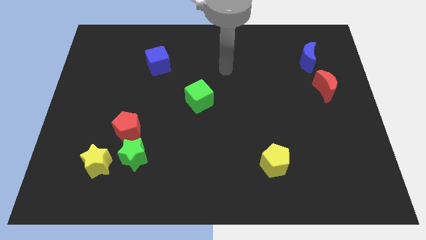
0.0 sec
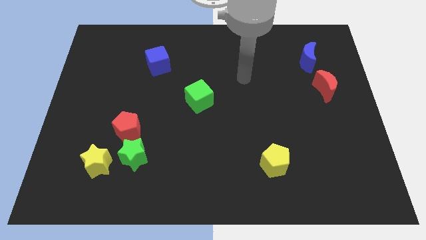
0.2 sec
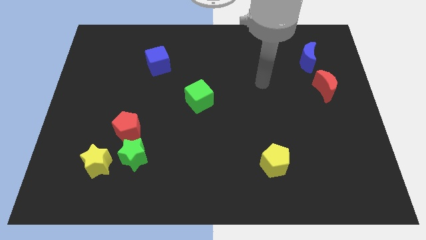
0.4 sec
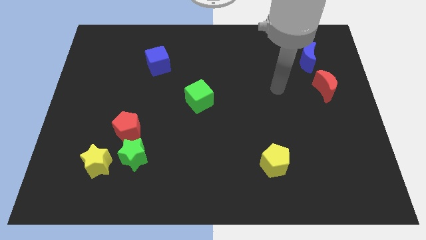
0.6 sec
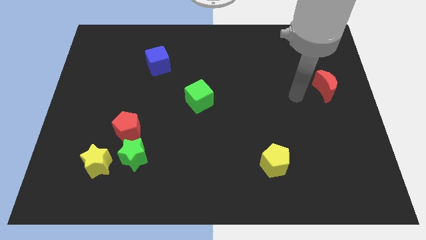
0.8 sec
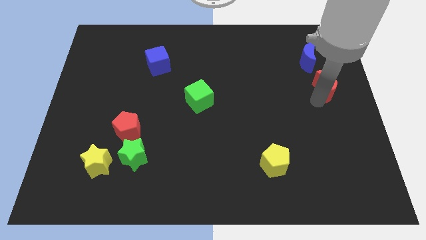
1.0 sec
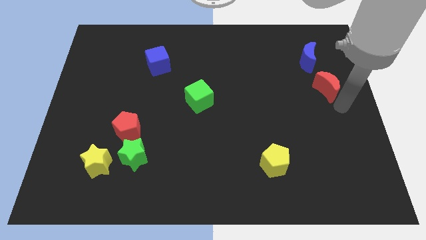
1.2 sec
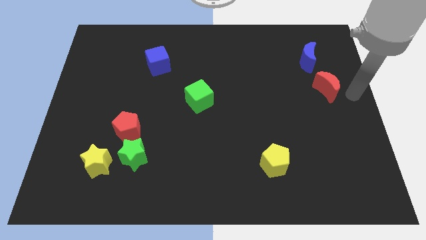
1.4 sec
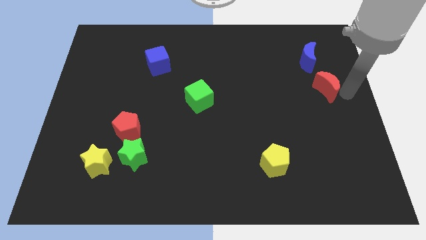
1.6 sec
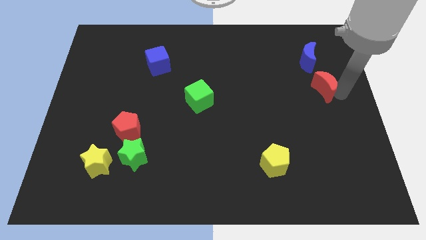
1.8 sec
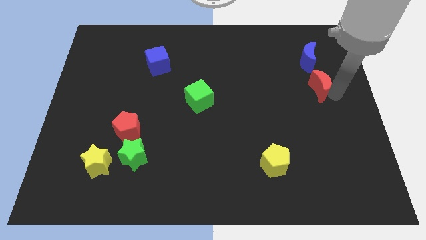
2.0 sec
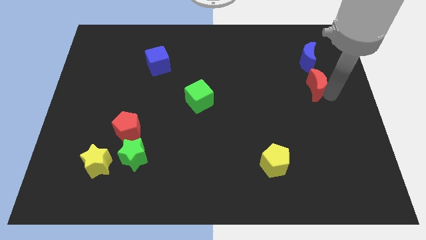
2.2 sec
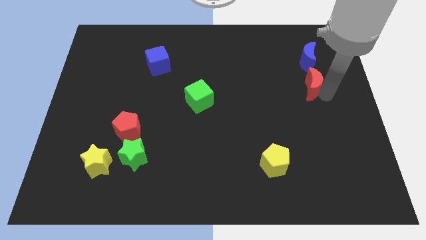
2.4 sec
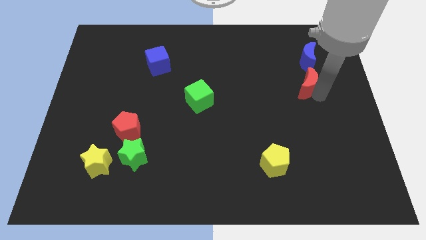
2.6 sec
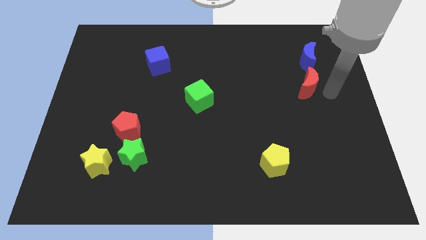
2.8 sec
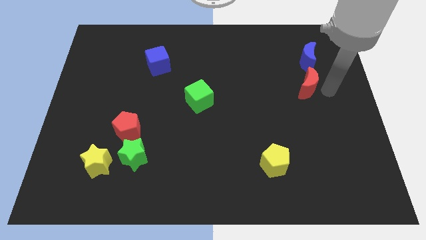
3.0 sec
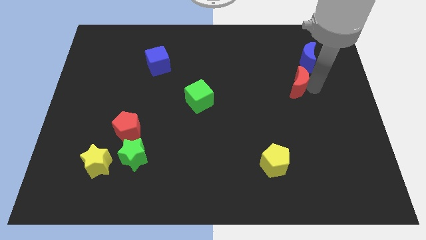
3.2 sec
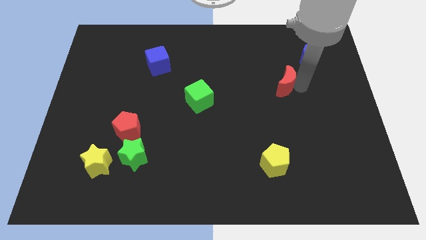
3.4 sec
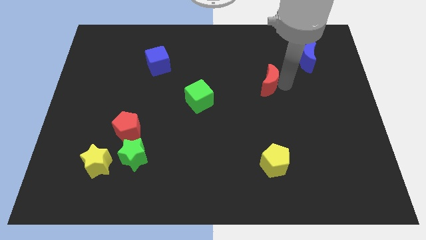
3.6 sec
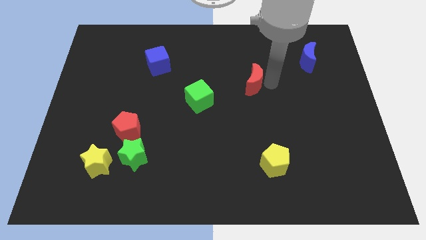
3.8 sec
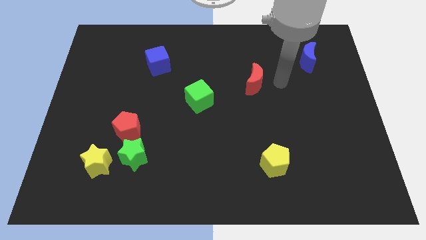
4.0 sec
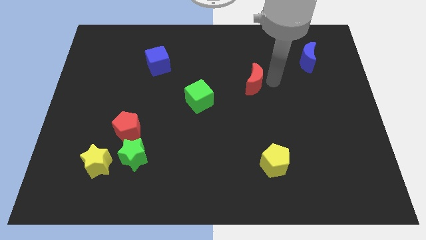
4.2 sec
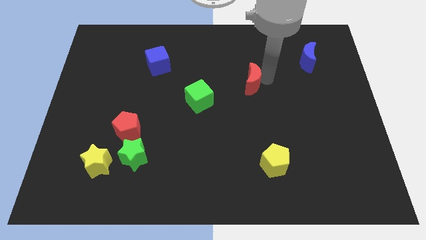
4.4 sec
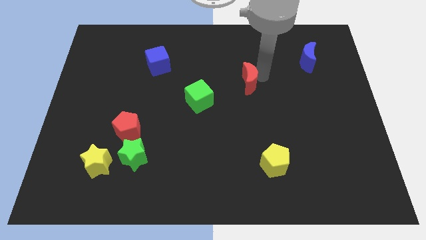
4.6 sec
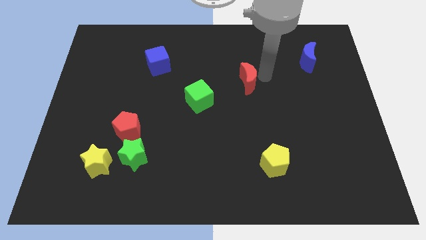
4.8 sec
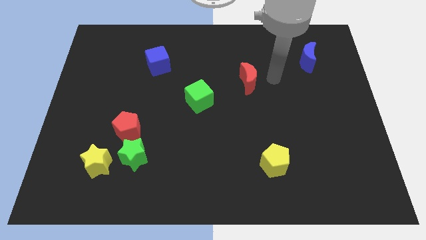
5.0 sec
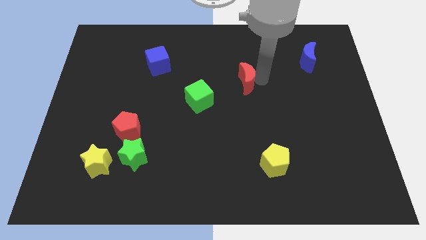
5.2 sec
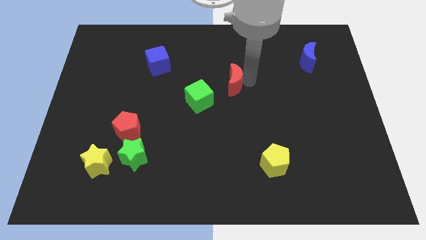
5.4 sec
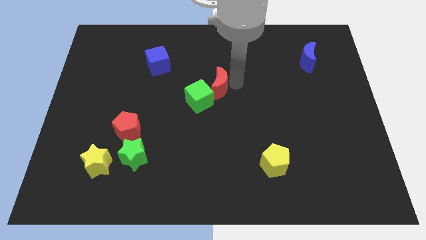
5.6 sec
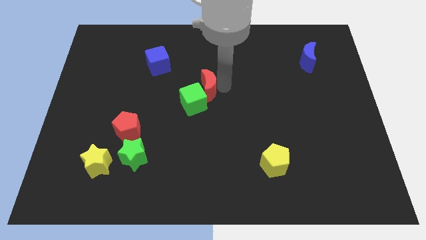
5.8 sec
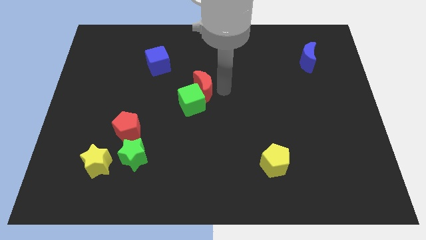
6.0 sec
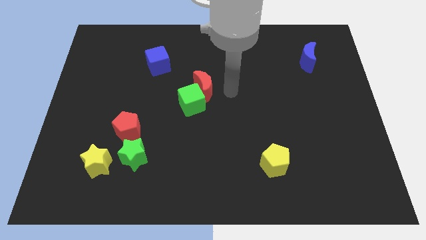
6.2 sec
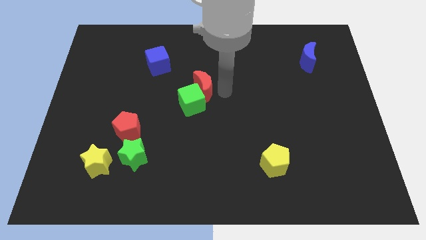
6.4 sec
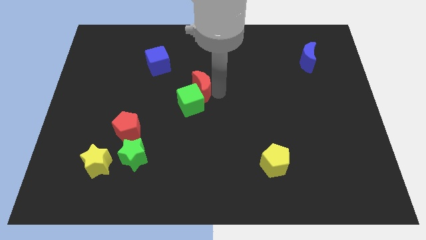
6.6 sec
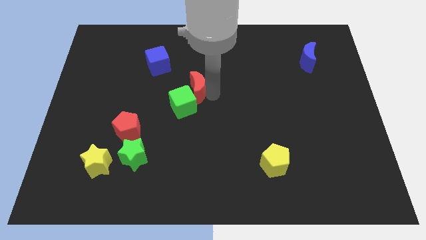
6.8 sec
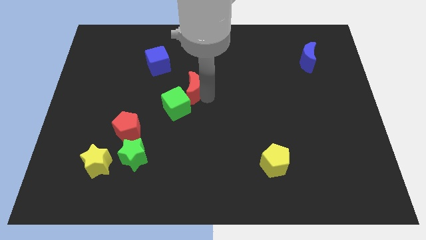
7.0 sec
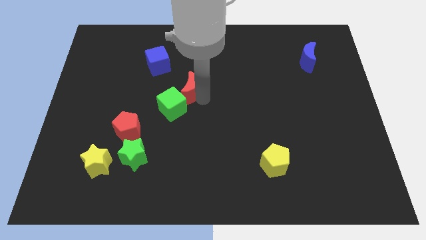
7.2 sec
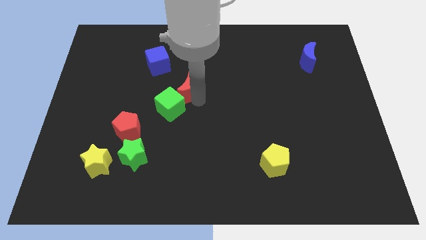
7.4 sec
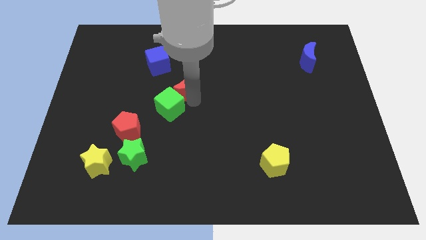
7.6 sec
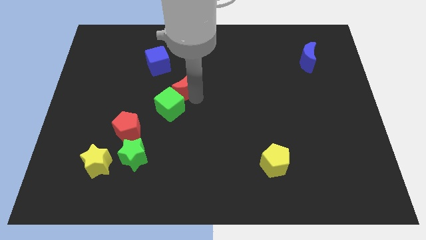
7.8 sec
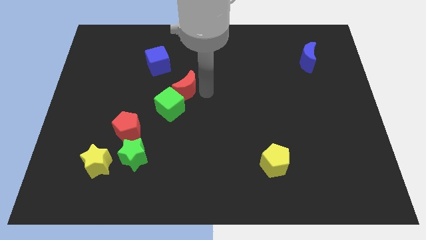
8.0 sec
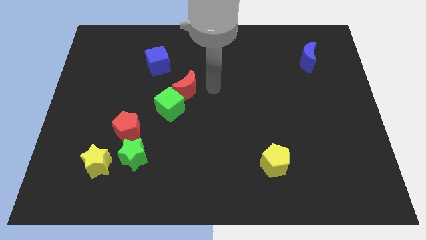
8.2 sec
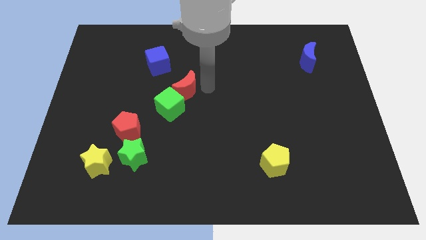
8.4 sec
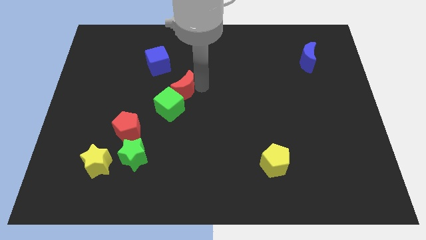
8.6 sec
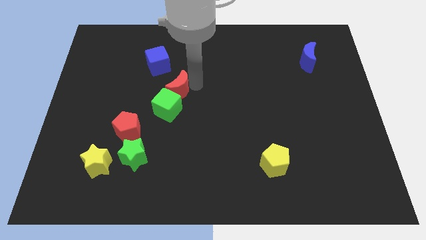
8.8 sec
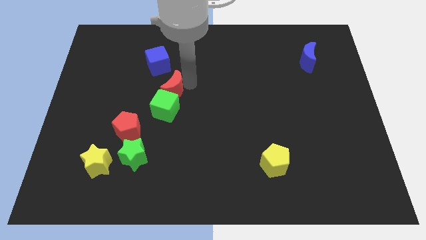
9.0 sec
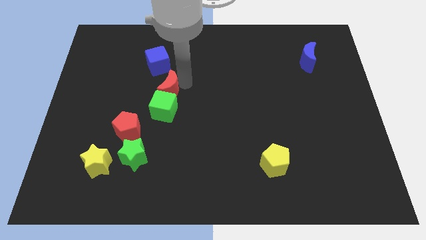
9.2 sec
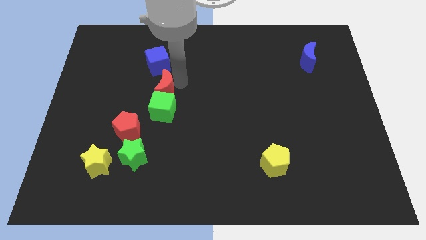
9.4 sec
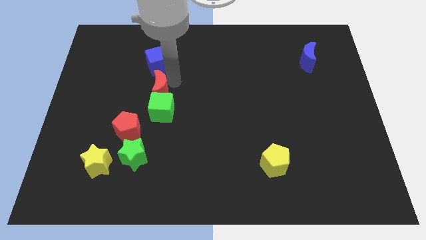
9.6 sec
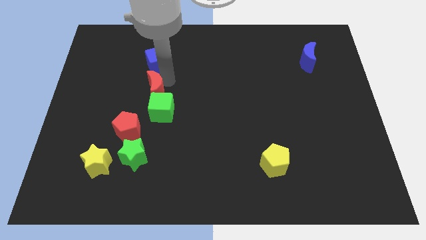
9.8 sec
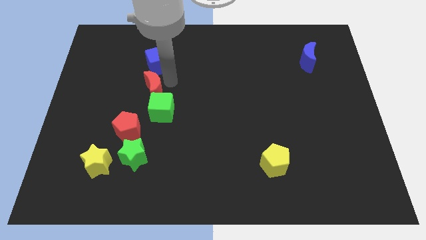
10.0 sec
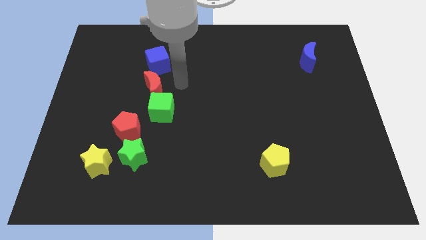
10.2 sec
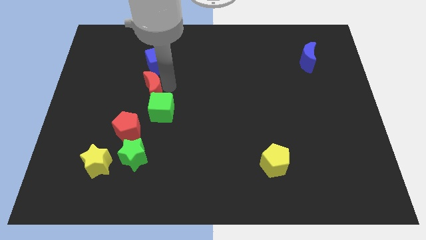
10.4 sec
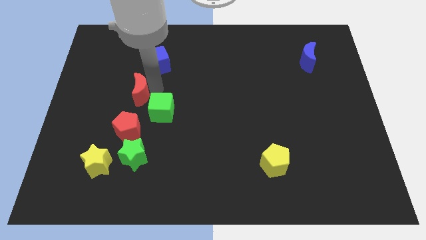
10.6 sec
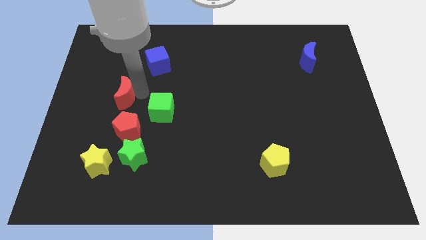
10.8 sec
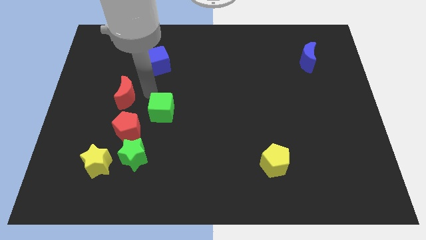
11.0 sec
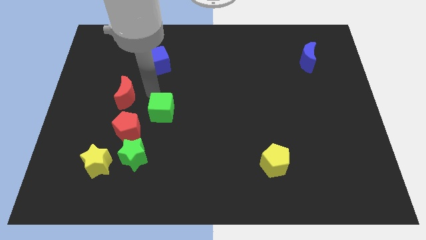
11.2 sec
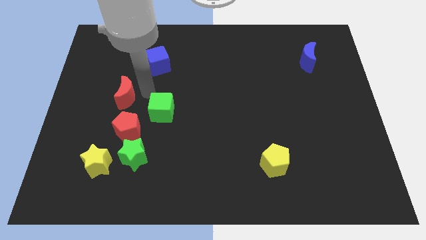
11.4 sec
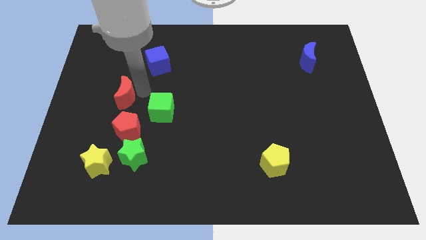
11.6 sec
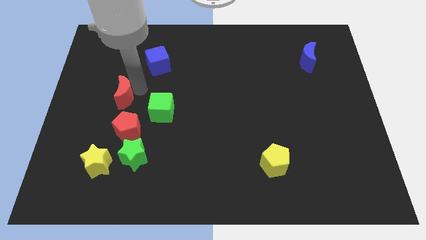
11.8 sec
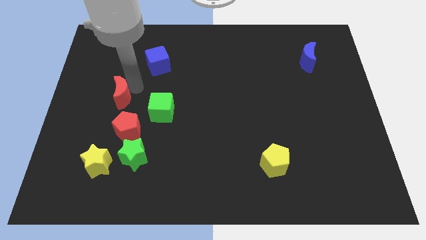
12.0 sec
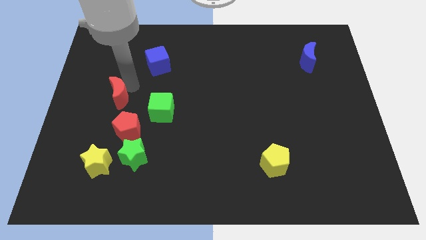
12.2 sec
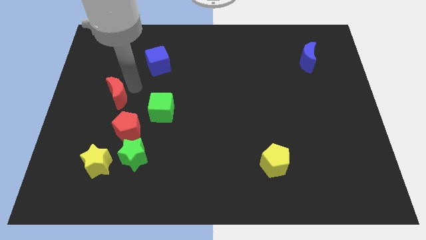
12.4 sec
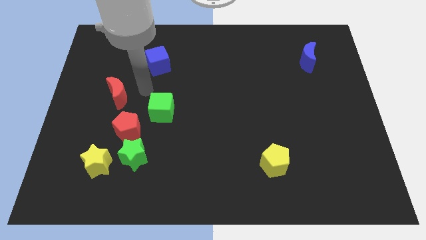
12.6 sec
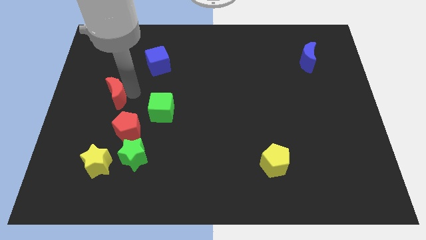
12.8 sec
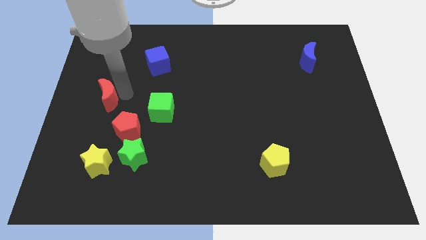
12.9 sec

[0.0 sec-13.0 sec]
put the red moon to the left side of the board
